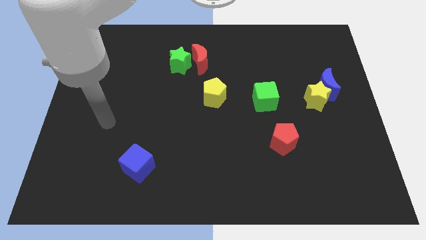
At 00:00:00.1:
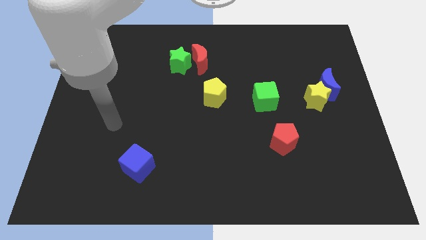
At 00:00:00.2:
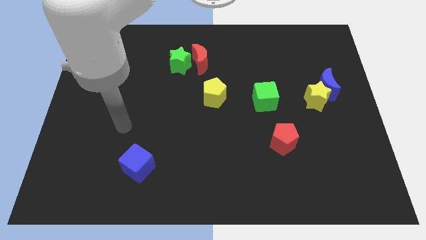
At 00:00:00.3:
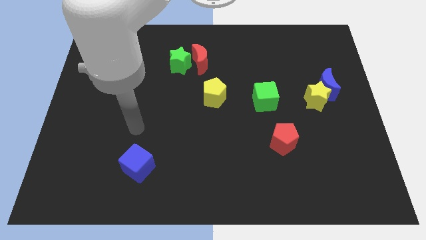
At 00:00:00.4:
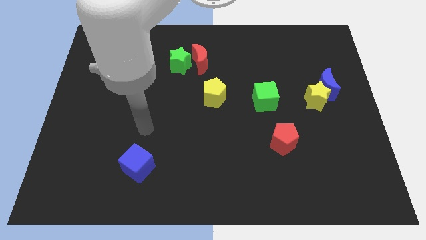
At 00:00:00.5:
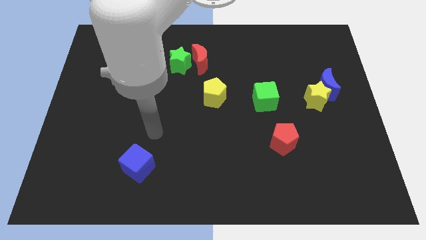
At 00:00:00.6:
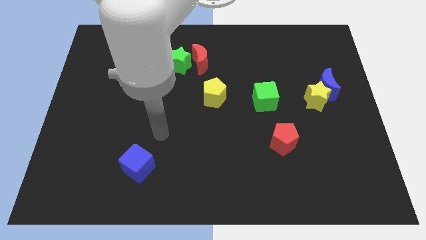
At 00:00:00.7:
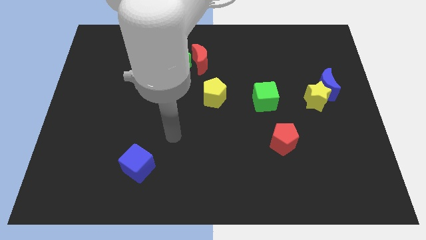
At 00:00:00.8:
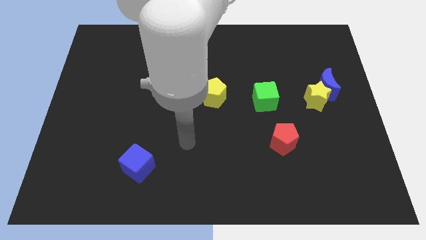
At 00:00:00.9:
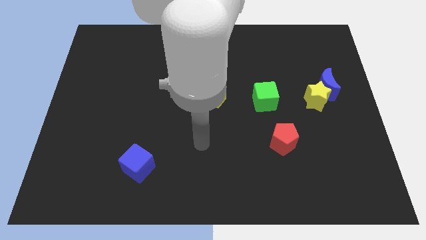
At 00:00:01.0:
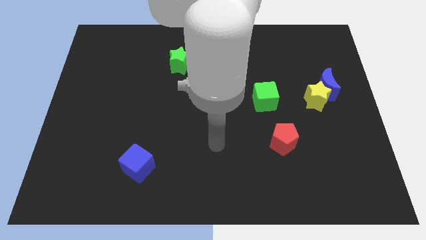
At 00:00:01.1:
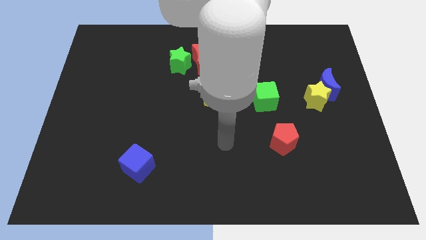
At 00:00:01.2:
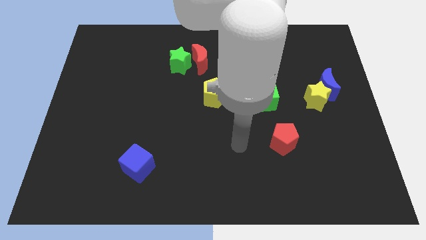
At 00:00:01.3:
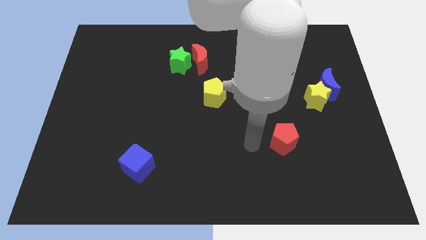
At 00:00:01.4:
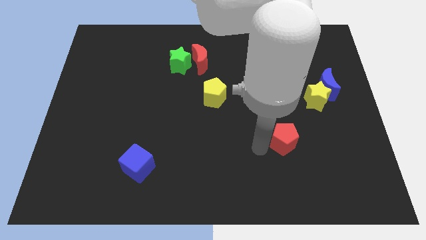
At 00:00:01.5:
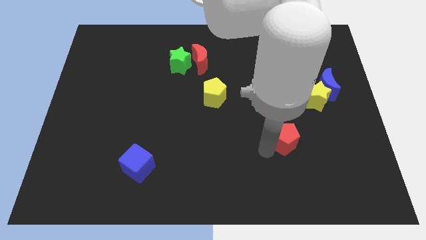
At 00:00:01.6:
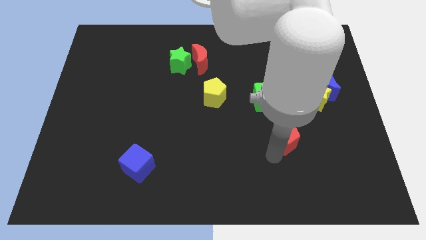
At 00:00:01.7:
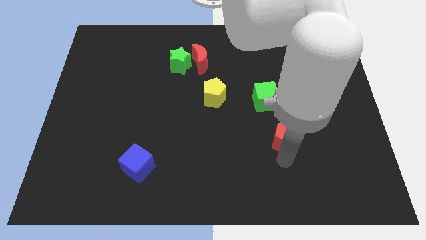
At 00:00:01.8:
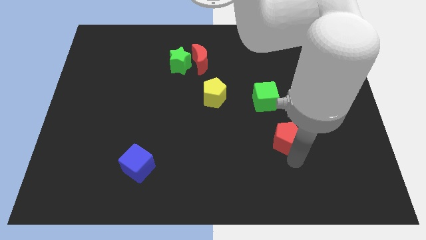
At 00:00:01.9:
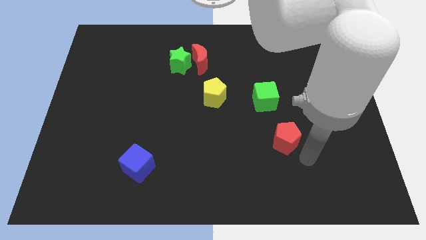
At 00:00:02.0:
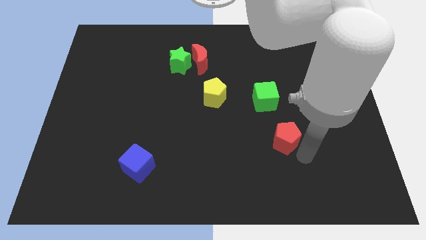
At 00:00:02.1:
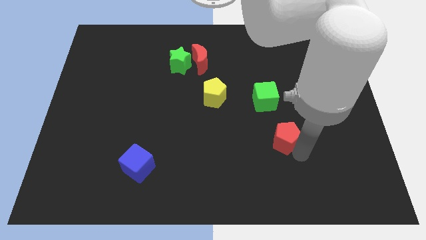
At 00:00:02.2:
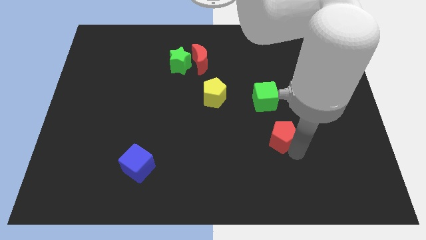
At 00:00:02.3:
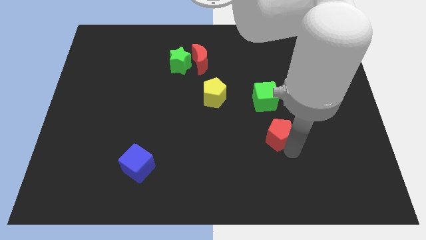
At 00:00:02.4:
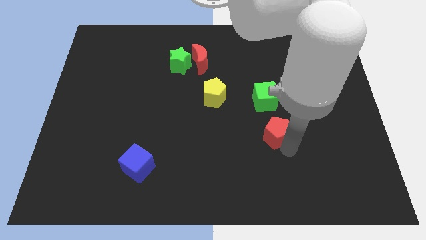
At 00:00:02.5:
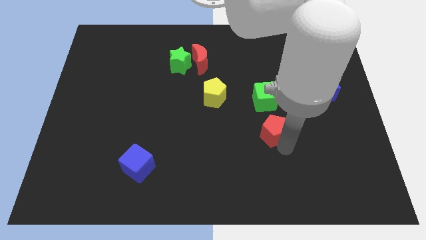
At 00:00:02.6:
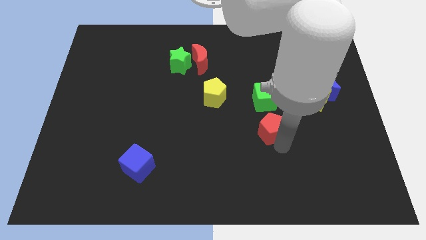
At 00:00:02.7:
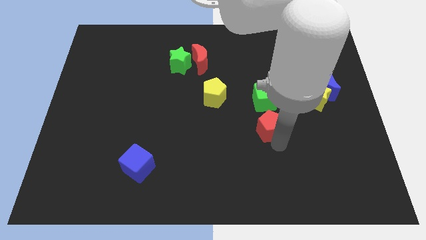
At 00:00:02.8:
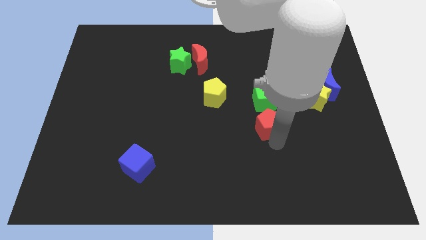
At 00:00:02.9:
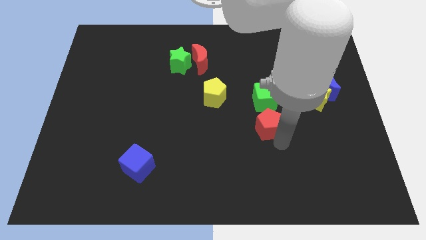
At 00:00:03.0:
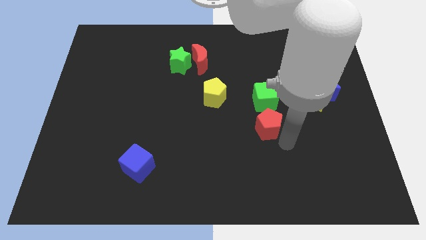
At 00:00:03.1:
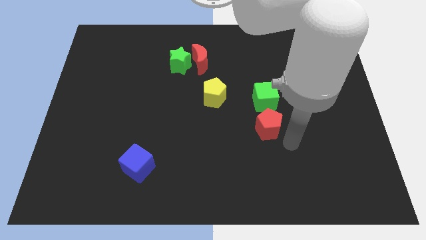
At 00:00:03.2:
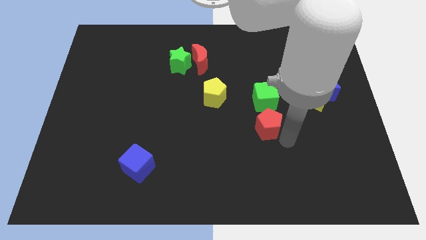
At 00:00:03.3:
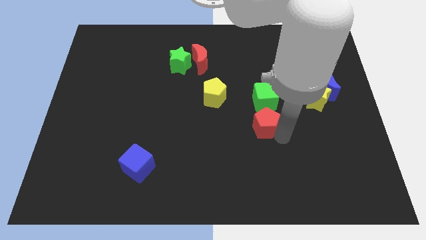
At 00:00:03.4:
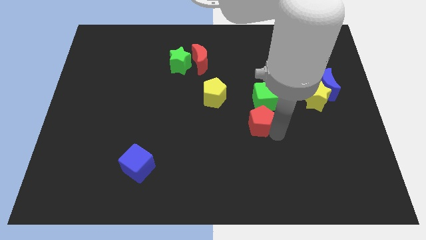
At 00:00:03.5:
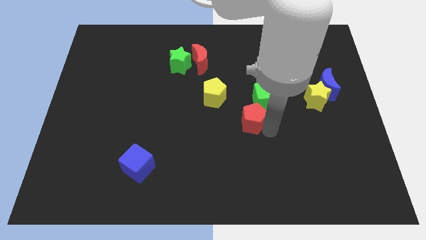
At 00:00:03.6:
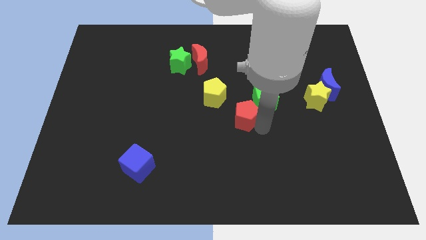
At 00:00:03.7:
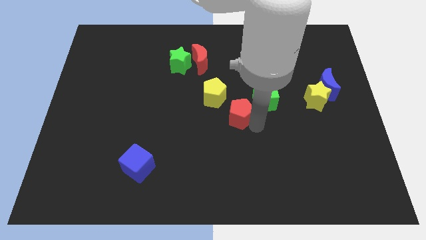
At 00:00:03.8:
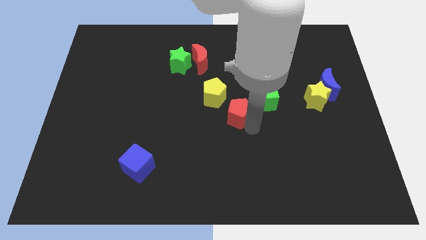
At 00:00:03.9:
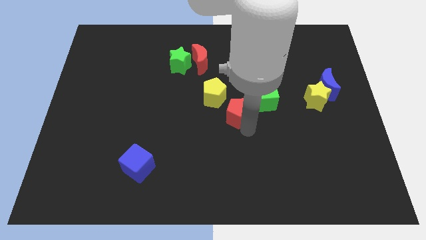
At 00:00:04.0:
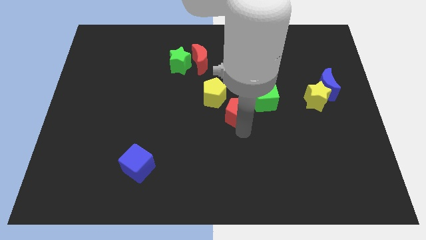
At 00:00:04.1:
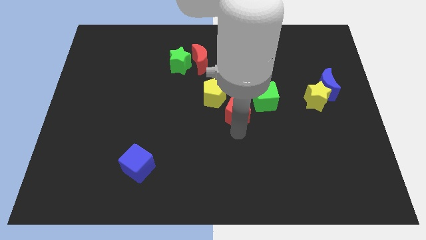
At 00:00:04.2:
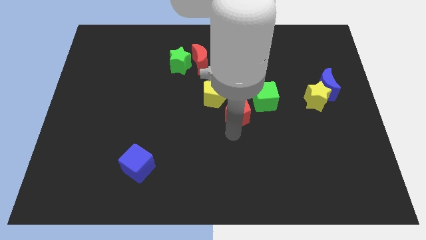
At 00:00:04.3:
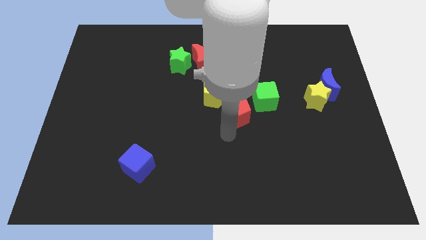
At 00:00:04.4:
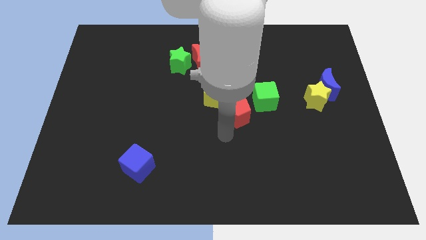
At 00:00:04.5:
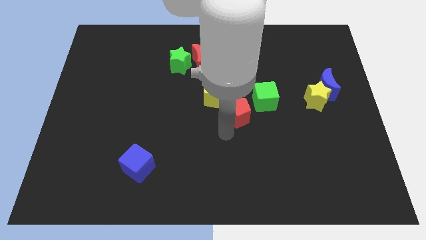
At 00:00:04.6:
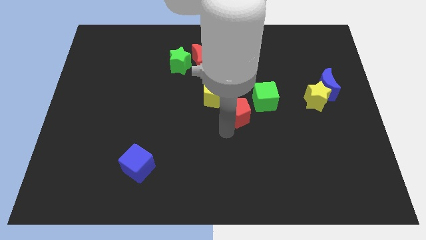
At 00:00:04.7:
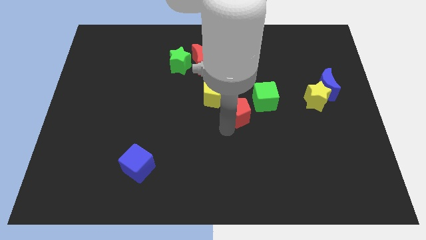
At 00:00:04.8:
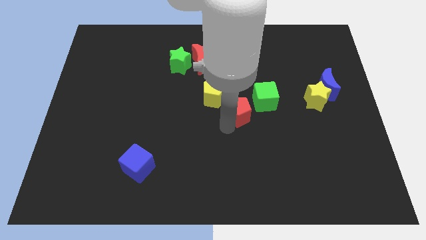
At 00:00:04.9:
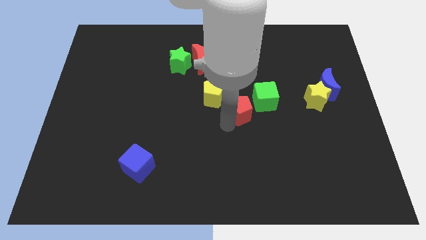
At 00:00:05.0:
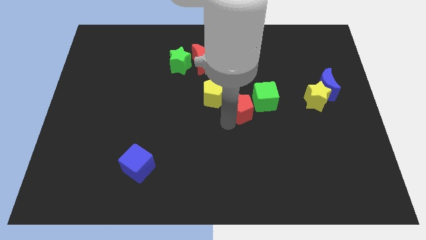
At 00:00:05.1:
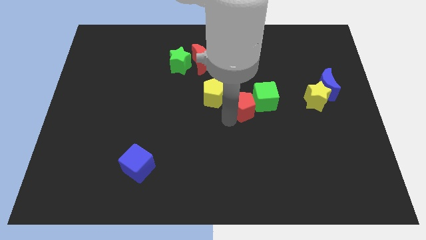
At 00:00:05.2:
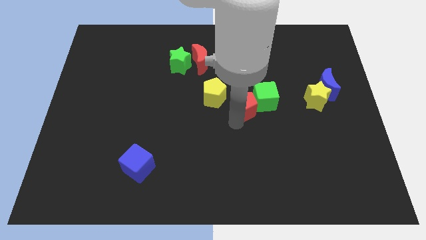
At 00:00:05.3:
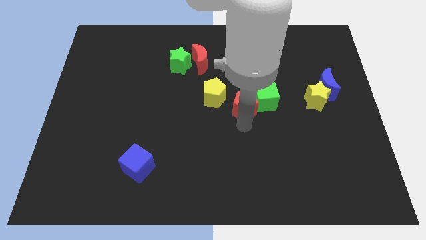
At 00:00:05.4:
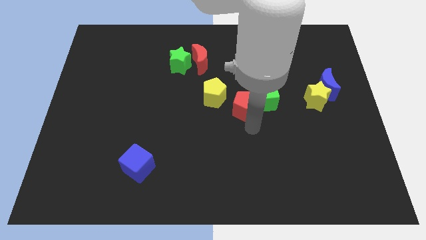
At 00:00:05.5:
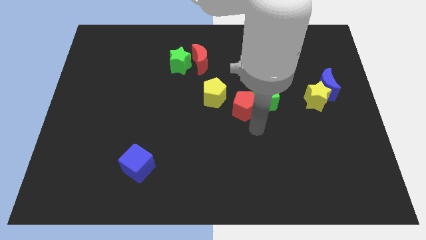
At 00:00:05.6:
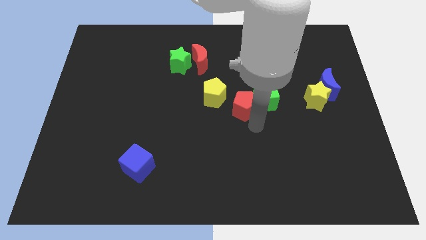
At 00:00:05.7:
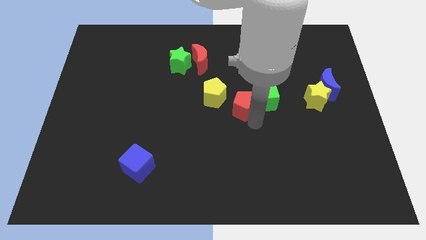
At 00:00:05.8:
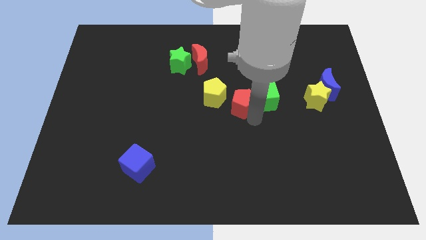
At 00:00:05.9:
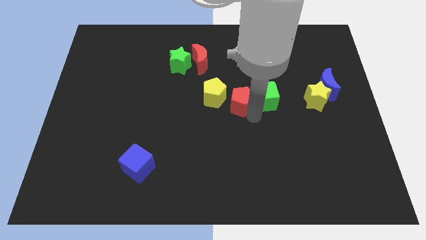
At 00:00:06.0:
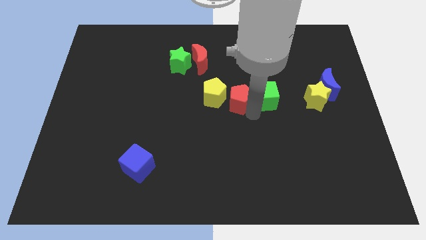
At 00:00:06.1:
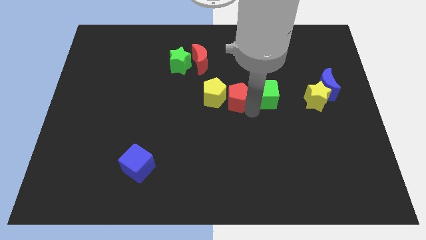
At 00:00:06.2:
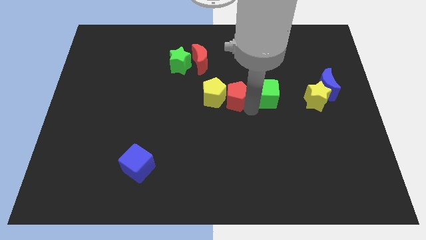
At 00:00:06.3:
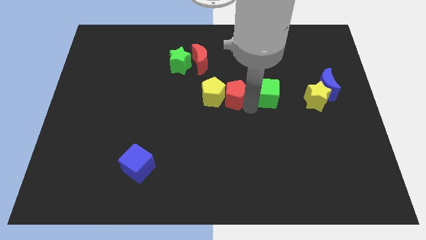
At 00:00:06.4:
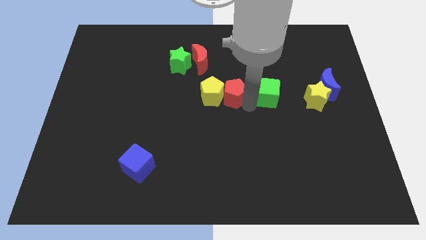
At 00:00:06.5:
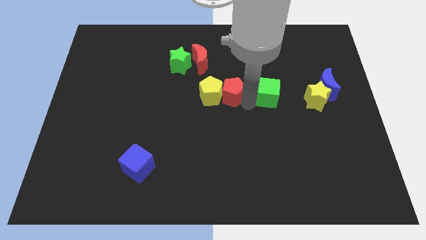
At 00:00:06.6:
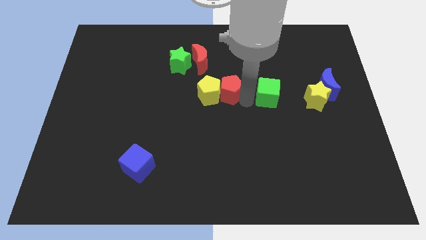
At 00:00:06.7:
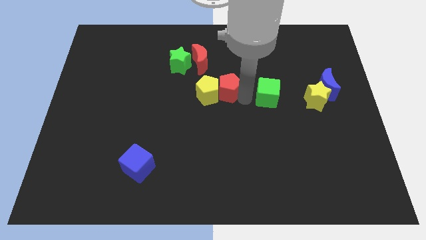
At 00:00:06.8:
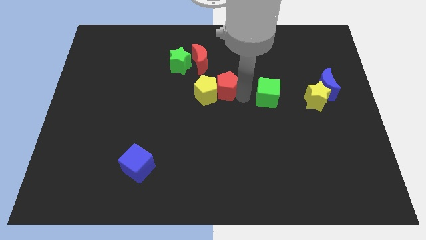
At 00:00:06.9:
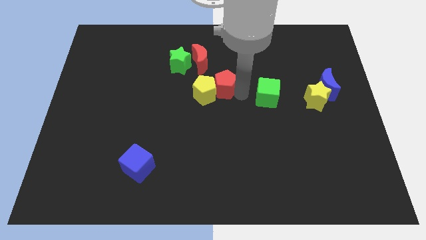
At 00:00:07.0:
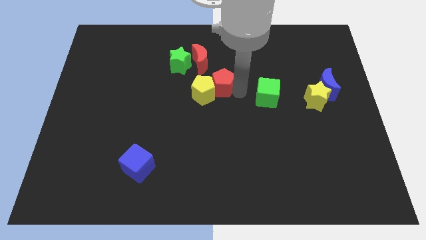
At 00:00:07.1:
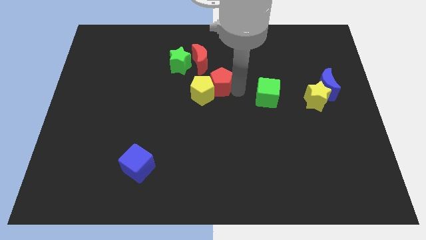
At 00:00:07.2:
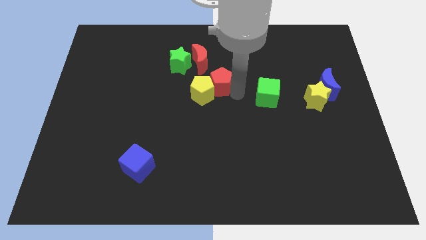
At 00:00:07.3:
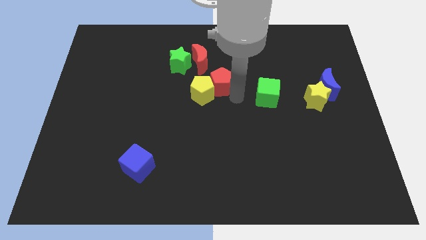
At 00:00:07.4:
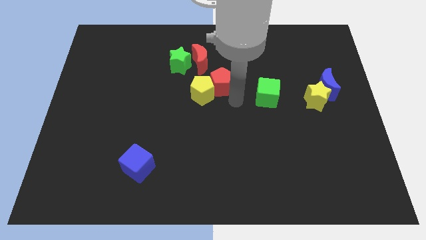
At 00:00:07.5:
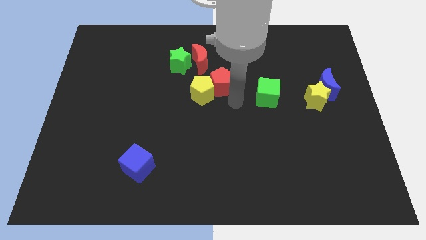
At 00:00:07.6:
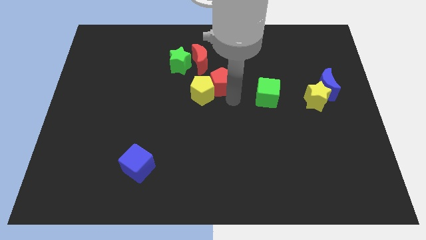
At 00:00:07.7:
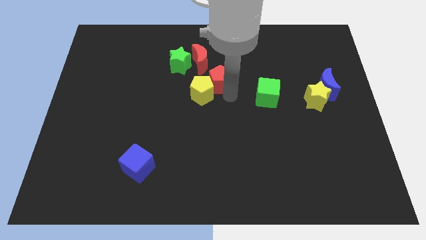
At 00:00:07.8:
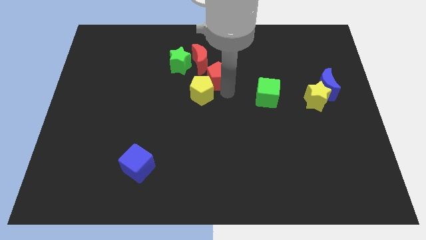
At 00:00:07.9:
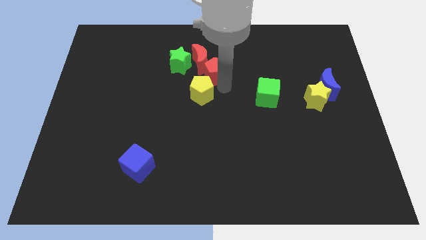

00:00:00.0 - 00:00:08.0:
slide the red pentagon towards the red moon
